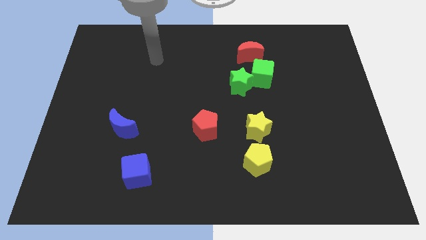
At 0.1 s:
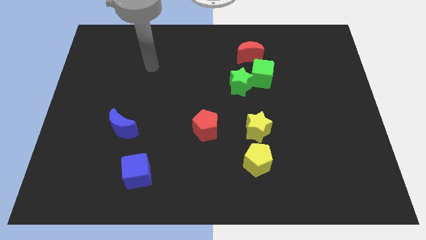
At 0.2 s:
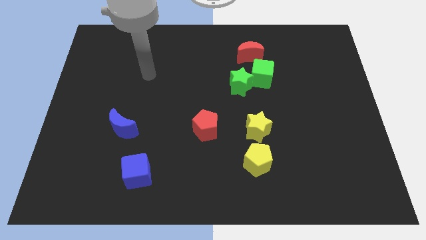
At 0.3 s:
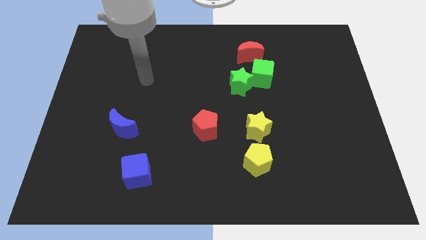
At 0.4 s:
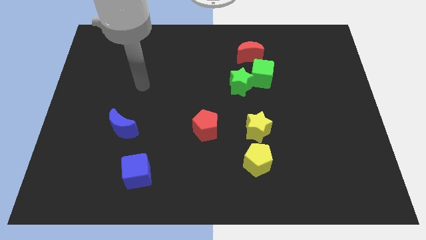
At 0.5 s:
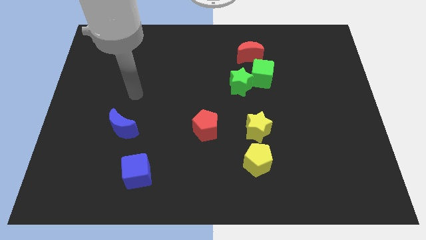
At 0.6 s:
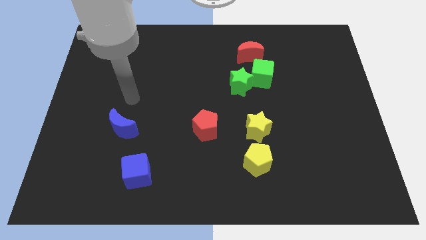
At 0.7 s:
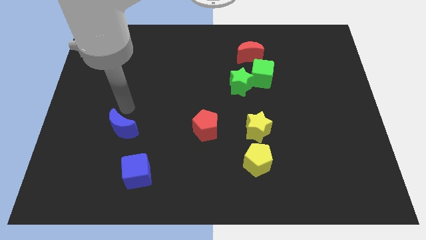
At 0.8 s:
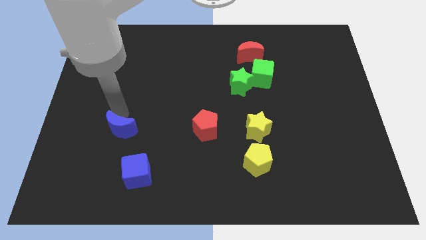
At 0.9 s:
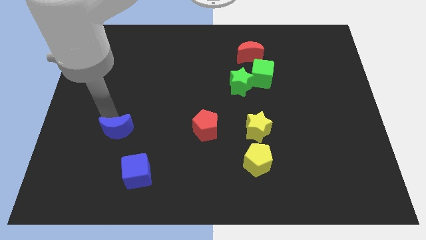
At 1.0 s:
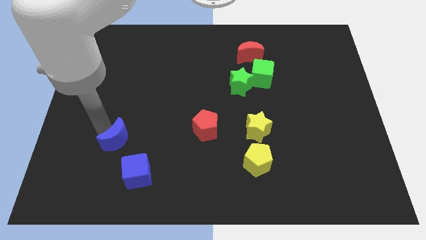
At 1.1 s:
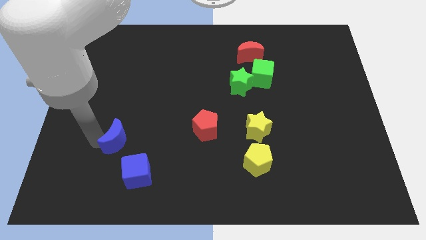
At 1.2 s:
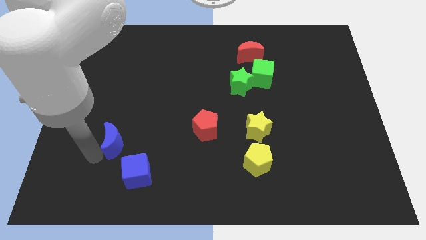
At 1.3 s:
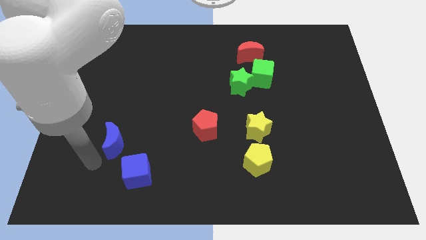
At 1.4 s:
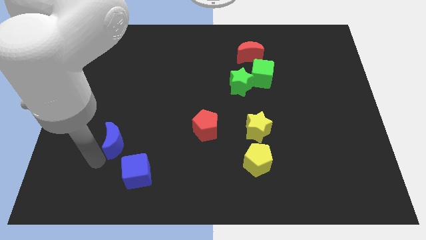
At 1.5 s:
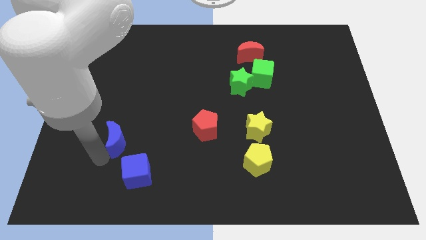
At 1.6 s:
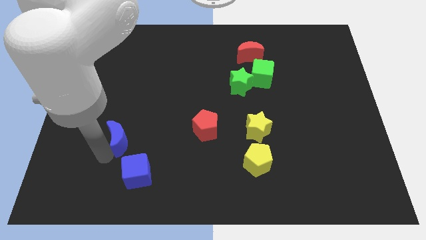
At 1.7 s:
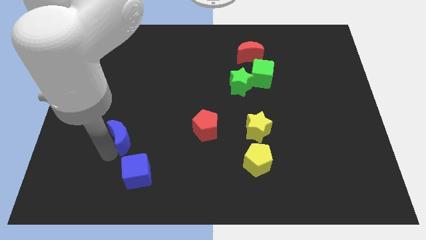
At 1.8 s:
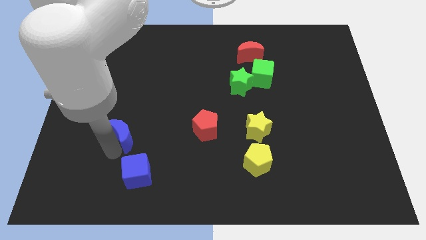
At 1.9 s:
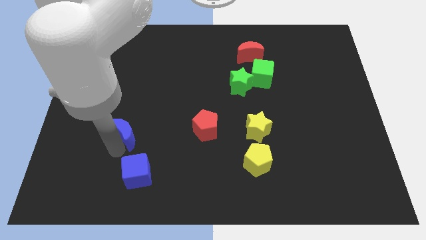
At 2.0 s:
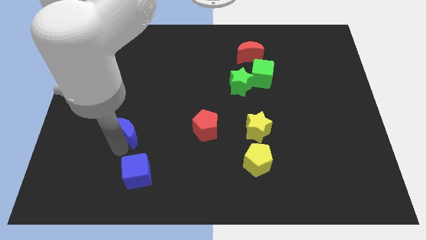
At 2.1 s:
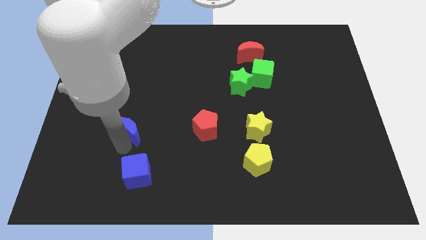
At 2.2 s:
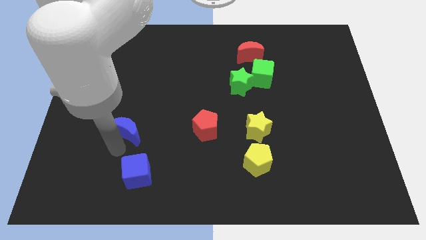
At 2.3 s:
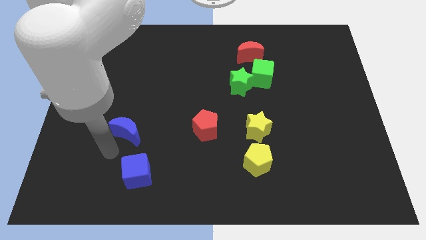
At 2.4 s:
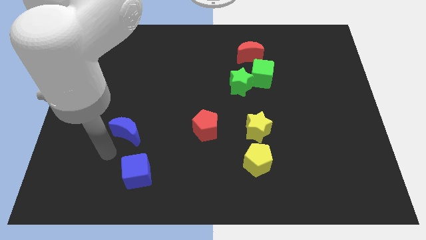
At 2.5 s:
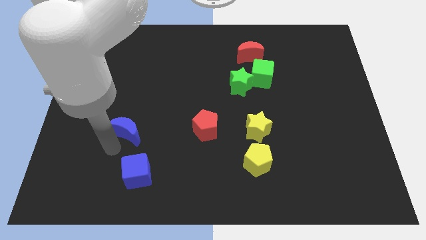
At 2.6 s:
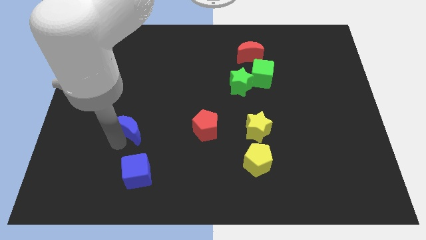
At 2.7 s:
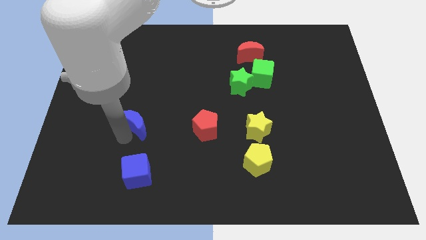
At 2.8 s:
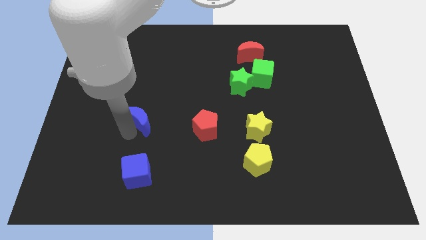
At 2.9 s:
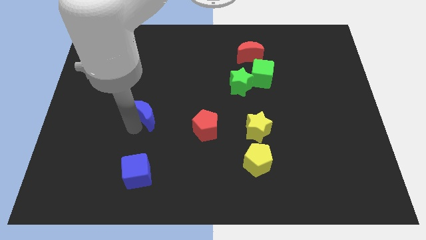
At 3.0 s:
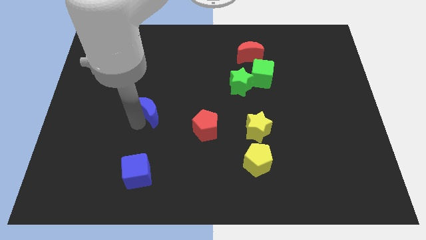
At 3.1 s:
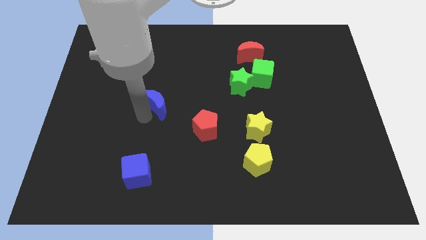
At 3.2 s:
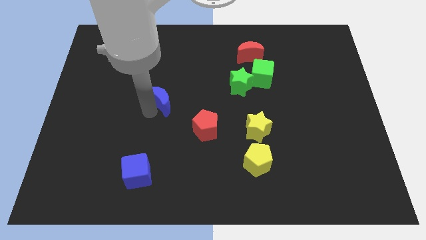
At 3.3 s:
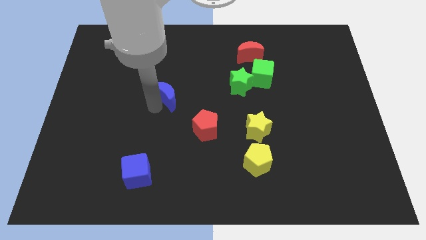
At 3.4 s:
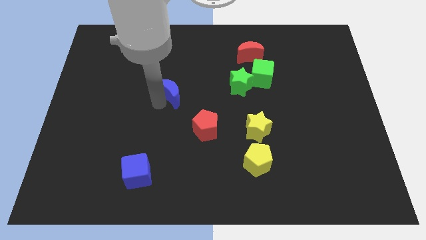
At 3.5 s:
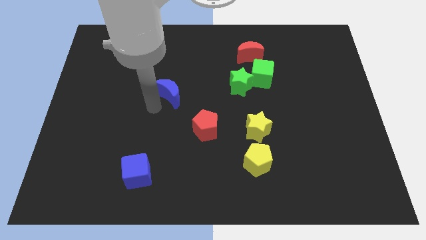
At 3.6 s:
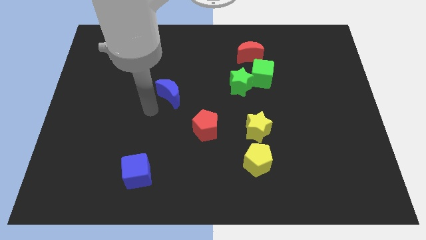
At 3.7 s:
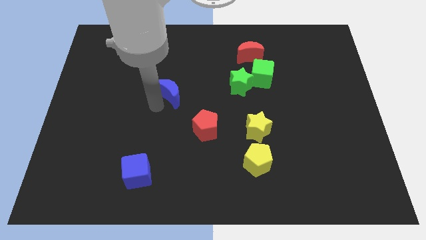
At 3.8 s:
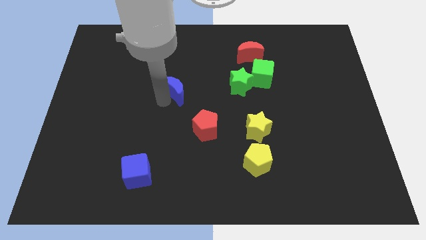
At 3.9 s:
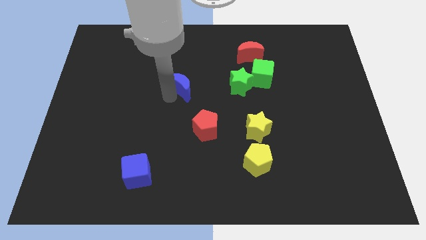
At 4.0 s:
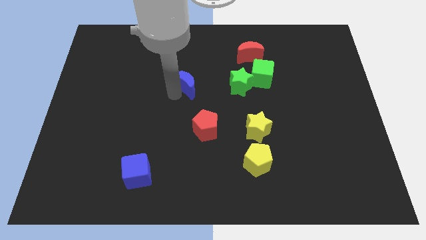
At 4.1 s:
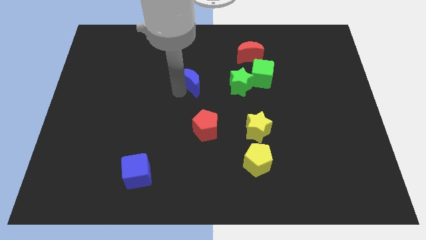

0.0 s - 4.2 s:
move the blue moon upwards and right

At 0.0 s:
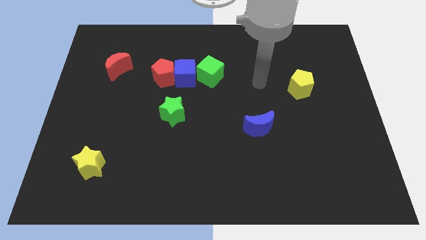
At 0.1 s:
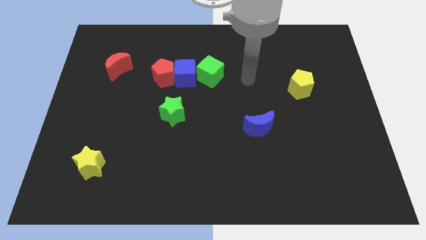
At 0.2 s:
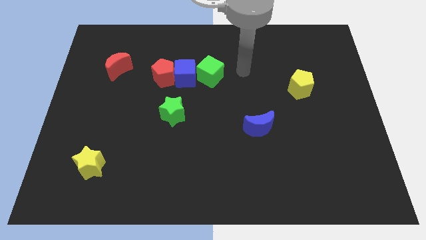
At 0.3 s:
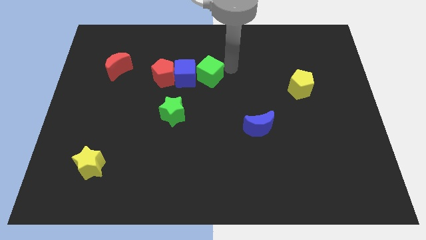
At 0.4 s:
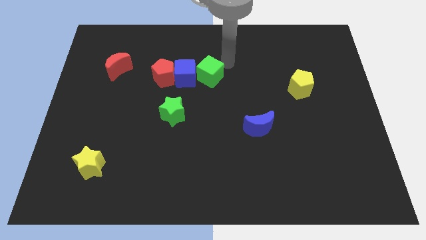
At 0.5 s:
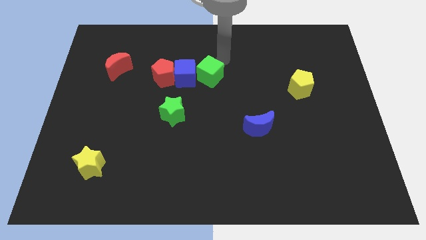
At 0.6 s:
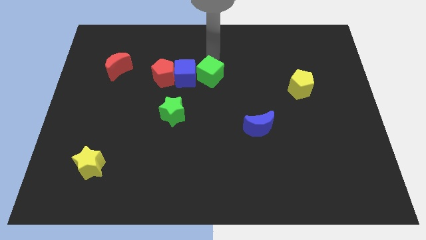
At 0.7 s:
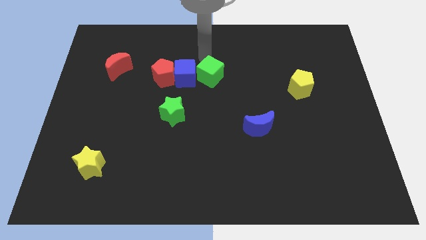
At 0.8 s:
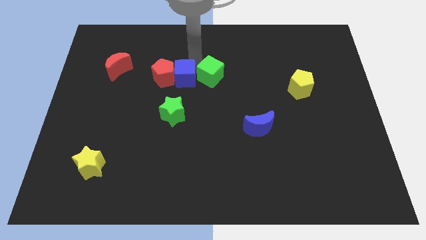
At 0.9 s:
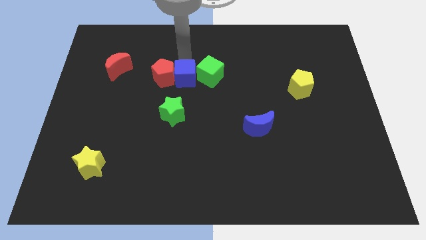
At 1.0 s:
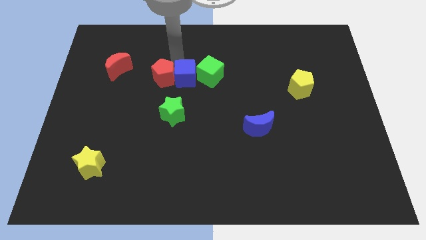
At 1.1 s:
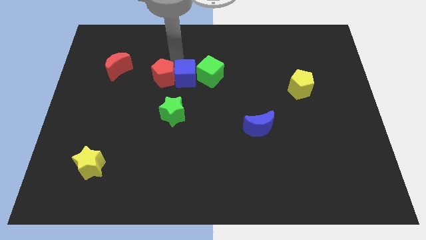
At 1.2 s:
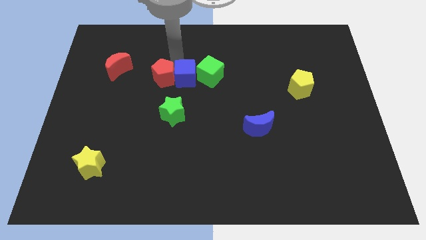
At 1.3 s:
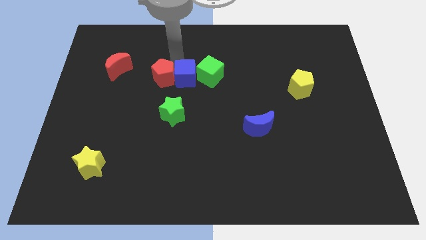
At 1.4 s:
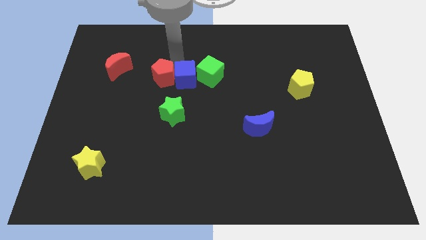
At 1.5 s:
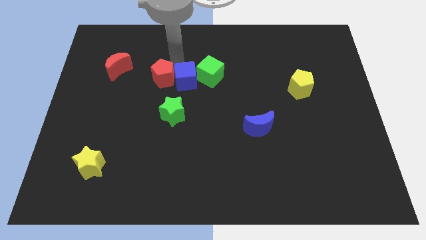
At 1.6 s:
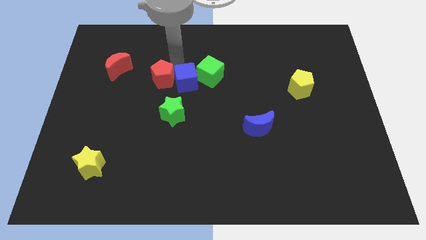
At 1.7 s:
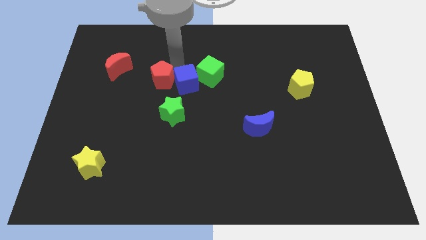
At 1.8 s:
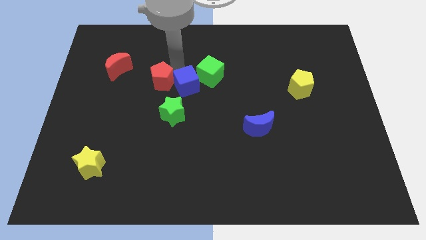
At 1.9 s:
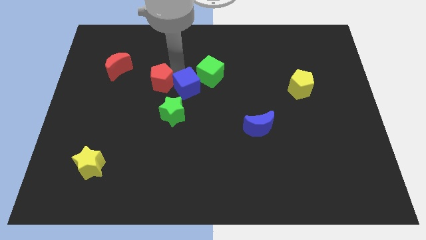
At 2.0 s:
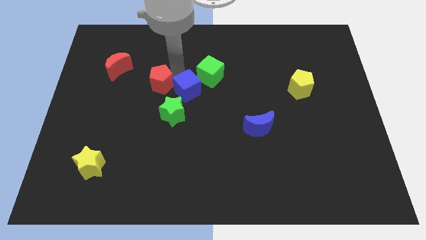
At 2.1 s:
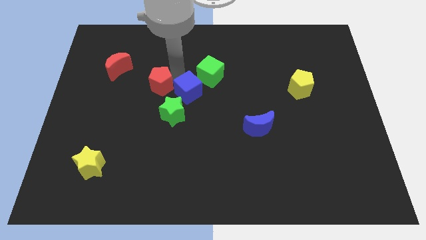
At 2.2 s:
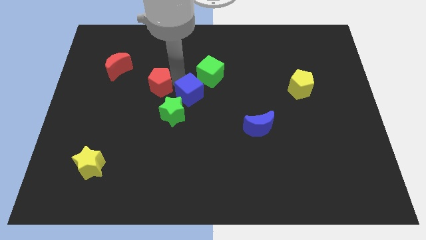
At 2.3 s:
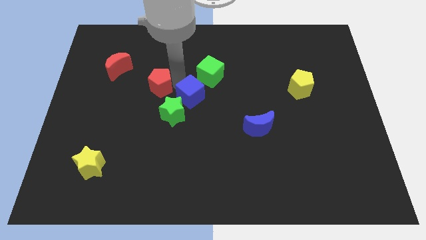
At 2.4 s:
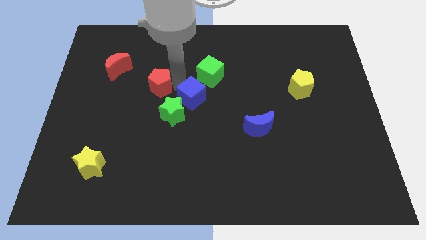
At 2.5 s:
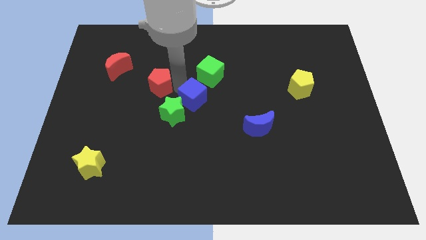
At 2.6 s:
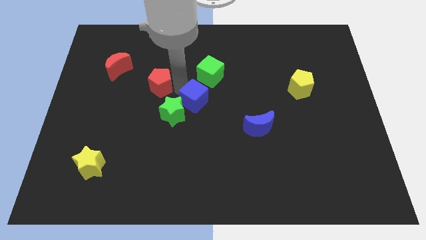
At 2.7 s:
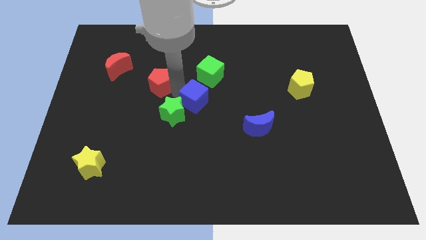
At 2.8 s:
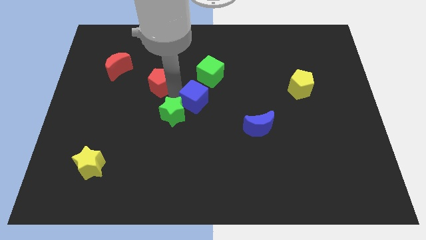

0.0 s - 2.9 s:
slide the blue cube diagonally down and right a little bit

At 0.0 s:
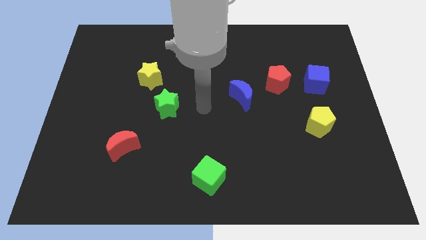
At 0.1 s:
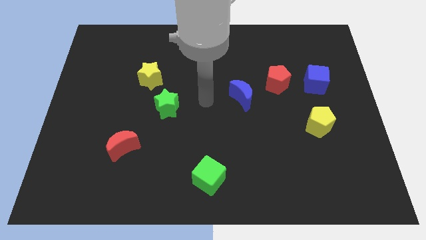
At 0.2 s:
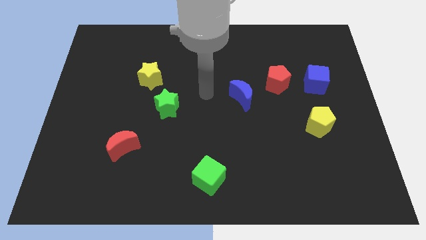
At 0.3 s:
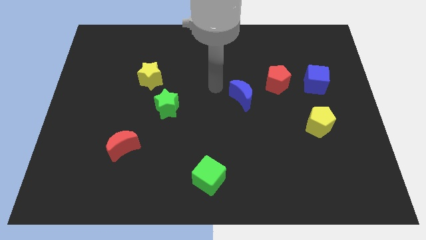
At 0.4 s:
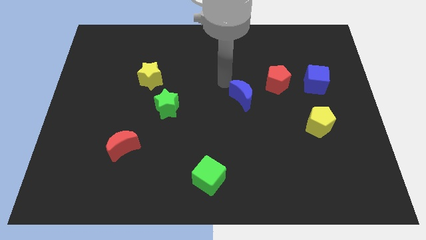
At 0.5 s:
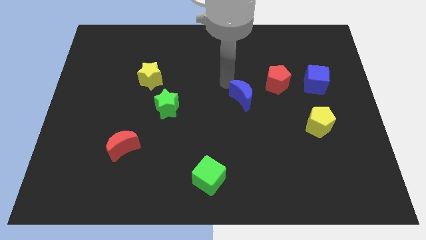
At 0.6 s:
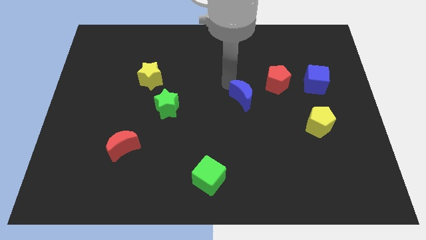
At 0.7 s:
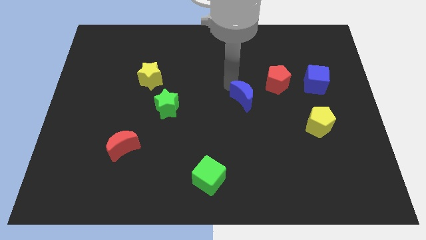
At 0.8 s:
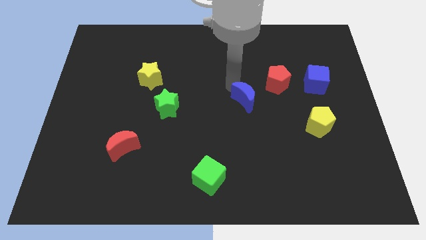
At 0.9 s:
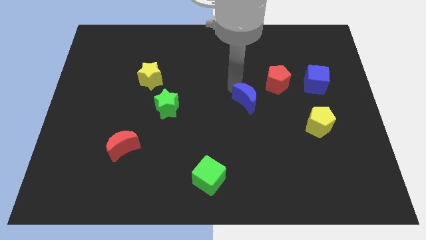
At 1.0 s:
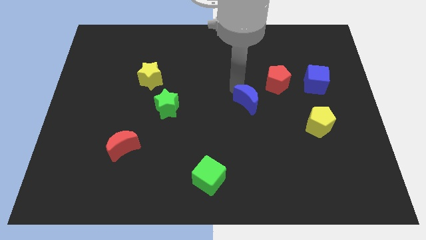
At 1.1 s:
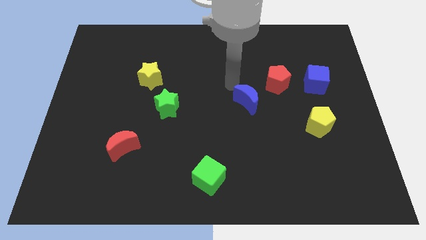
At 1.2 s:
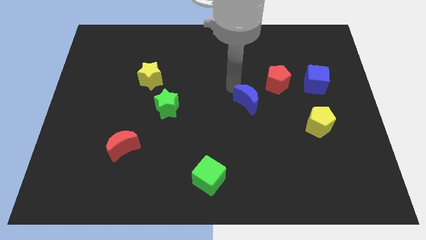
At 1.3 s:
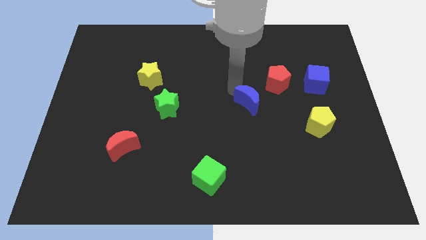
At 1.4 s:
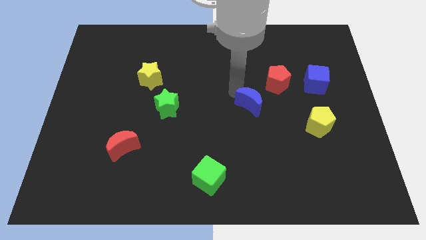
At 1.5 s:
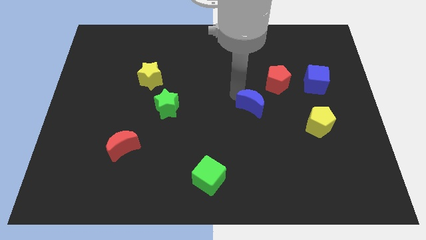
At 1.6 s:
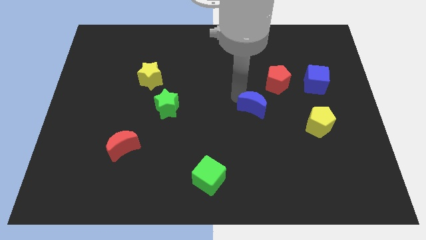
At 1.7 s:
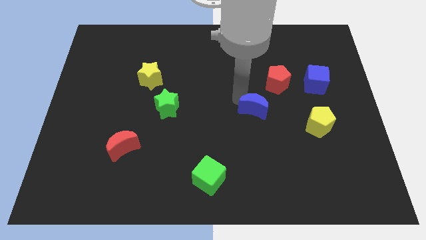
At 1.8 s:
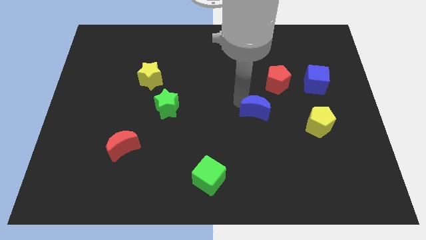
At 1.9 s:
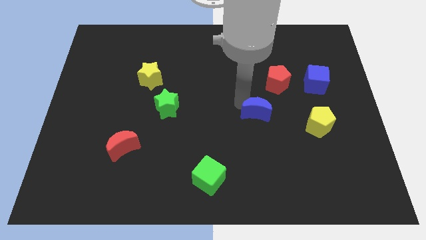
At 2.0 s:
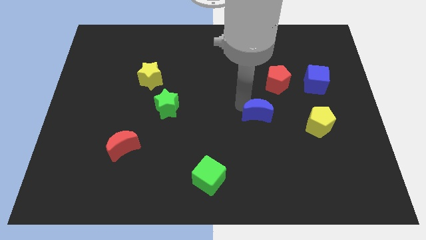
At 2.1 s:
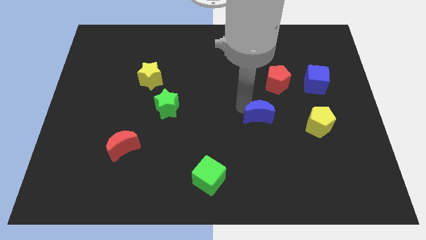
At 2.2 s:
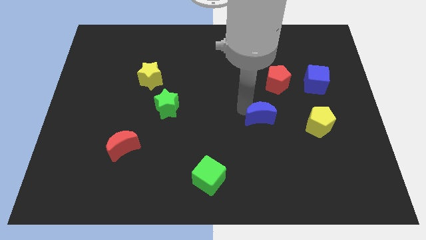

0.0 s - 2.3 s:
slightly move the blue moon down and right diagonally
